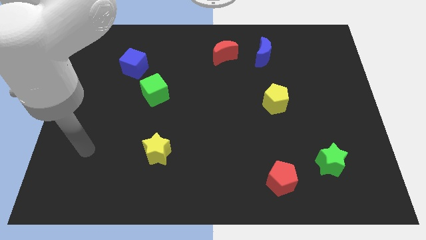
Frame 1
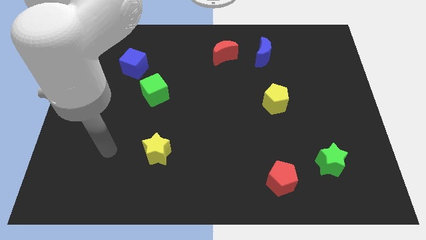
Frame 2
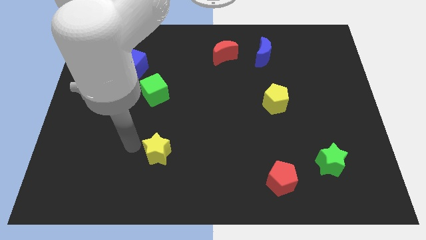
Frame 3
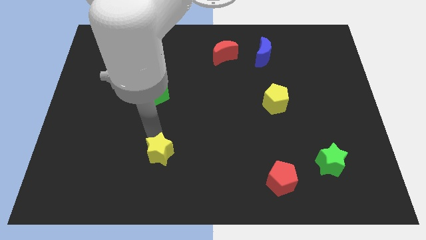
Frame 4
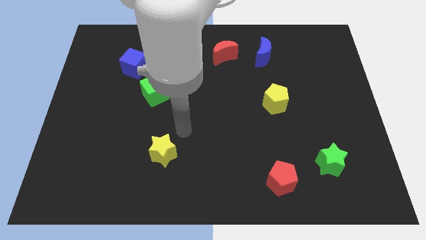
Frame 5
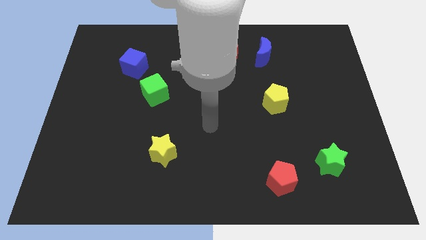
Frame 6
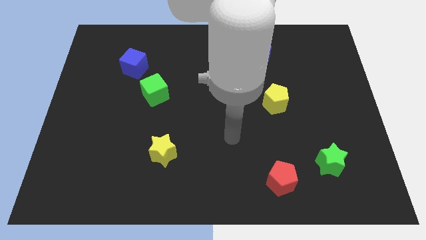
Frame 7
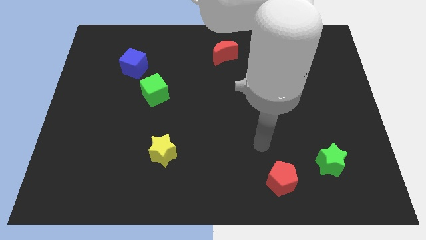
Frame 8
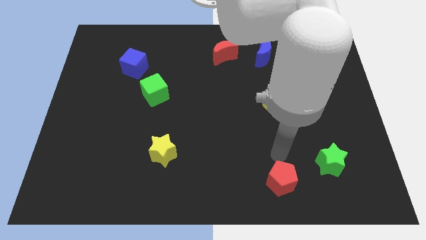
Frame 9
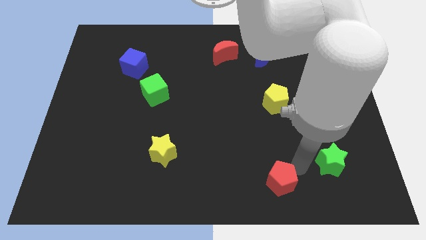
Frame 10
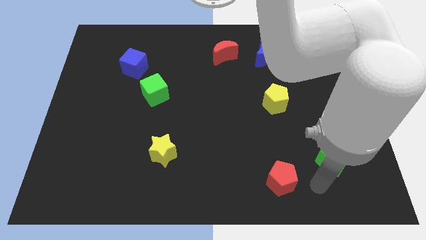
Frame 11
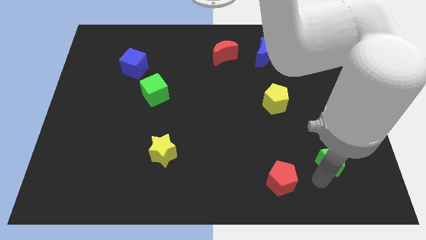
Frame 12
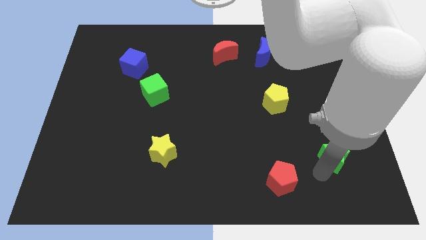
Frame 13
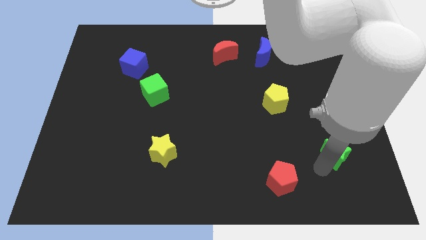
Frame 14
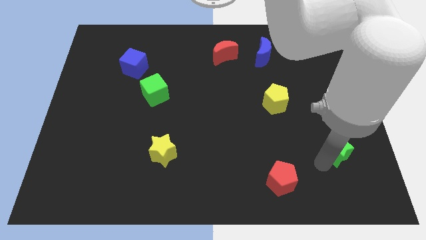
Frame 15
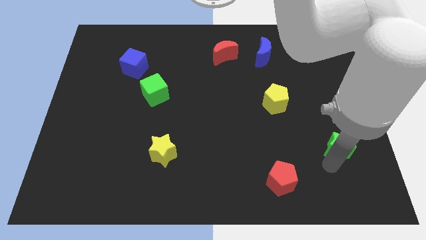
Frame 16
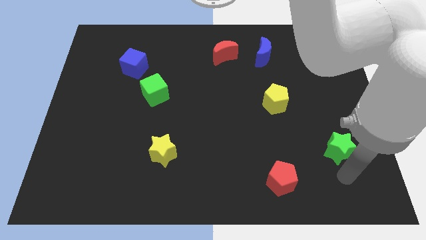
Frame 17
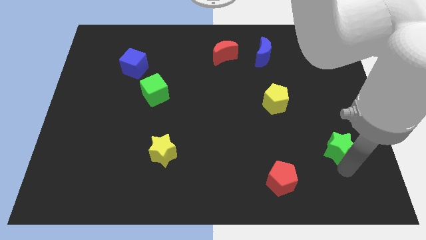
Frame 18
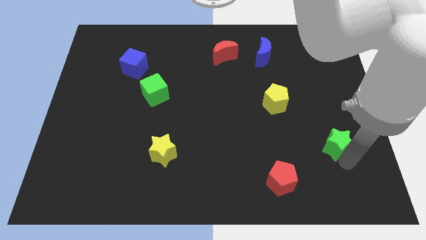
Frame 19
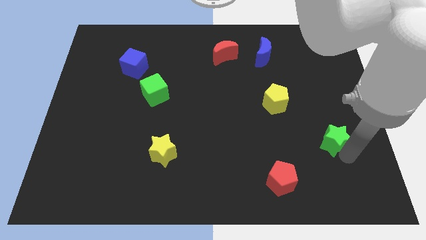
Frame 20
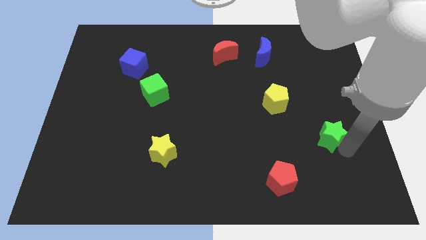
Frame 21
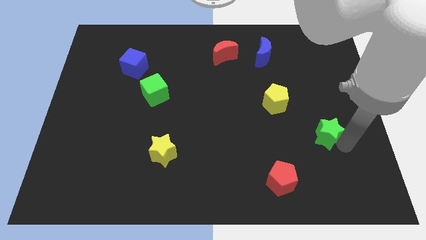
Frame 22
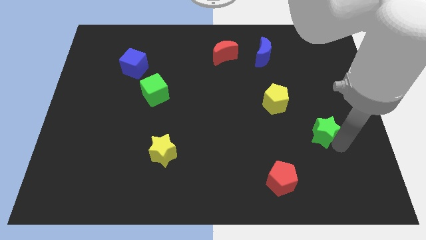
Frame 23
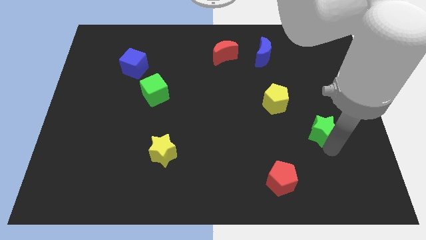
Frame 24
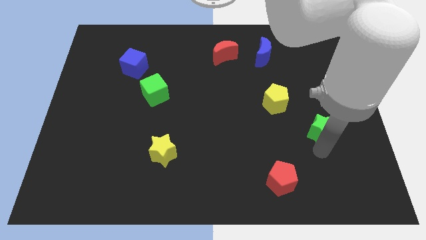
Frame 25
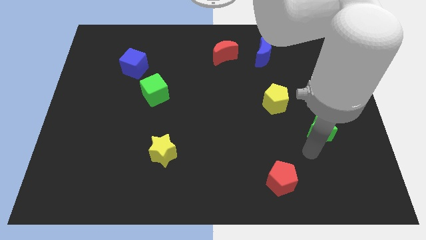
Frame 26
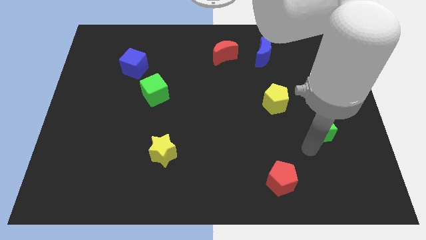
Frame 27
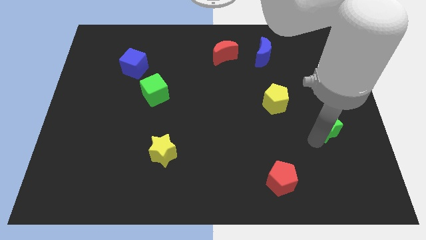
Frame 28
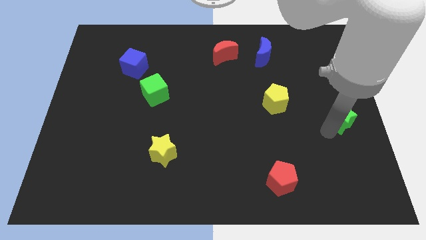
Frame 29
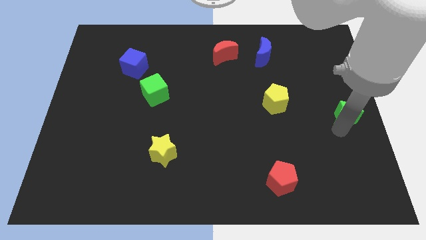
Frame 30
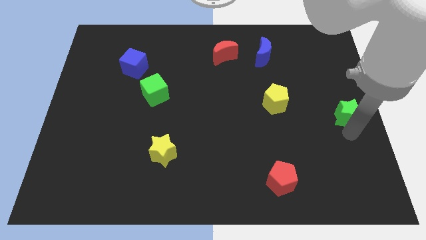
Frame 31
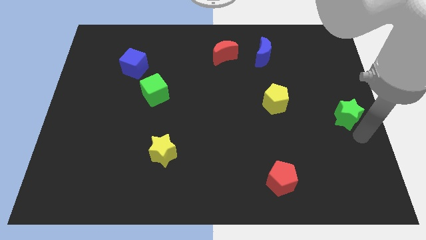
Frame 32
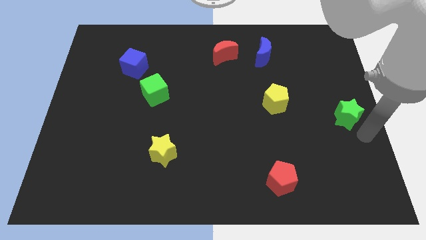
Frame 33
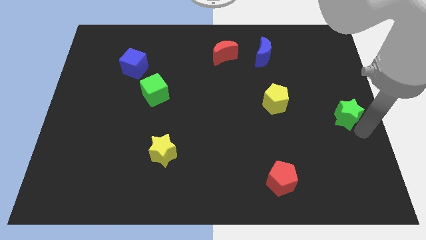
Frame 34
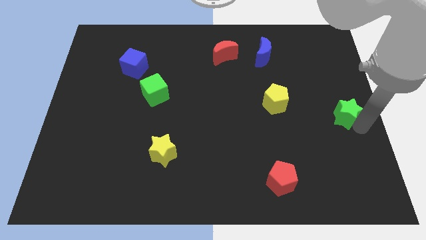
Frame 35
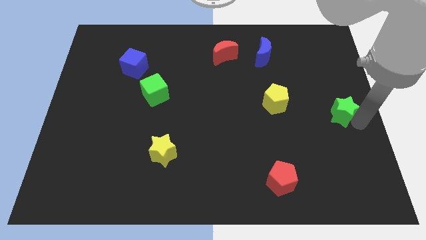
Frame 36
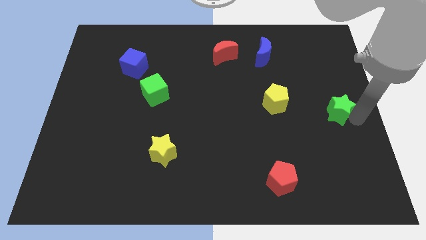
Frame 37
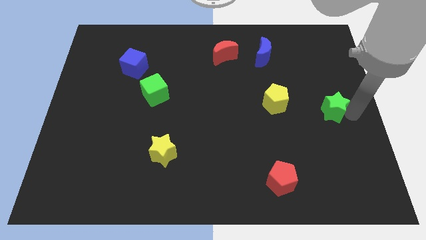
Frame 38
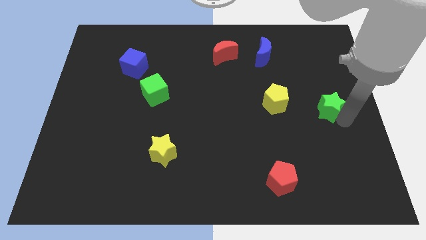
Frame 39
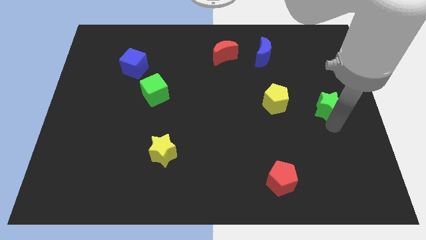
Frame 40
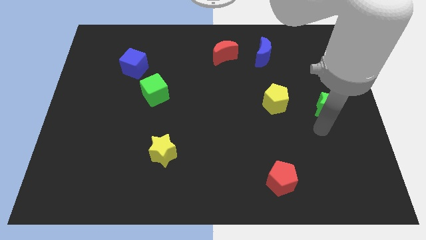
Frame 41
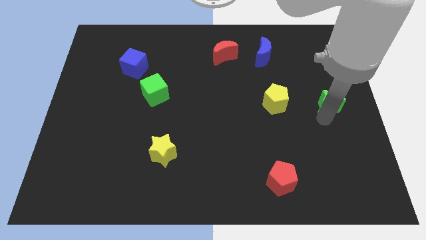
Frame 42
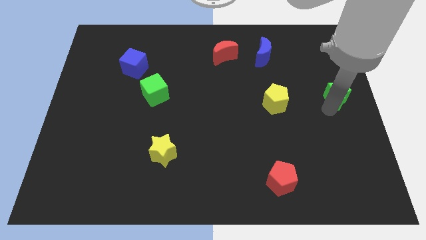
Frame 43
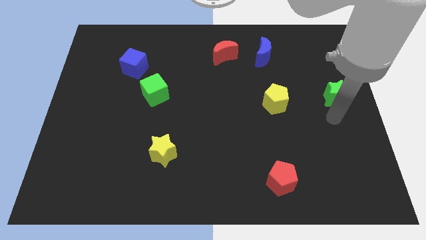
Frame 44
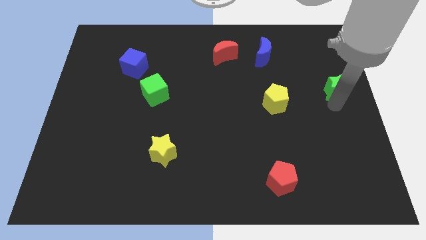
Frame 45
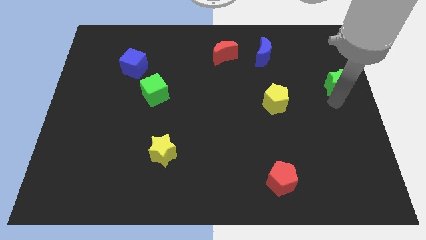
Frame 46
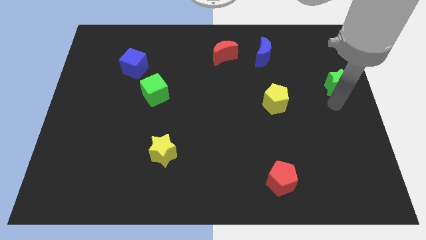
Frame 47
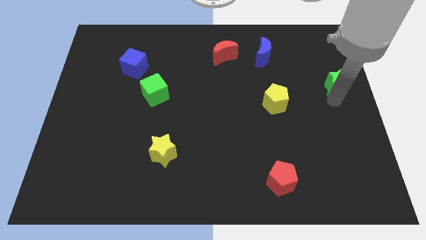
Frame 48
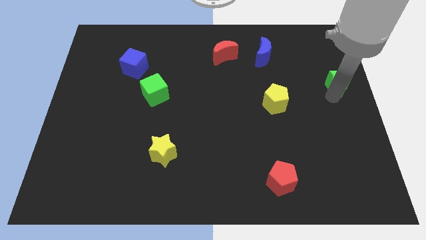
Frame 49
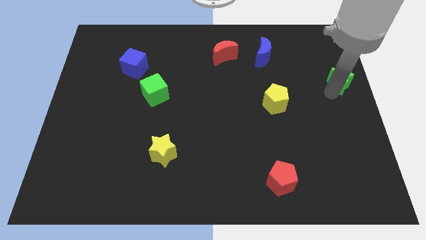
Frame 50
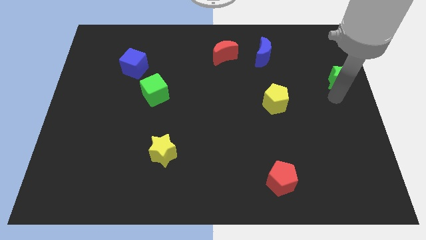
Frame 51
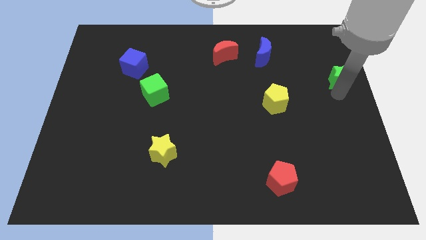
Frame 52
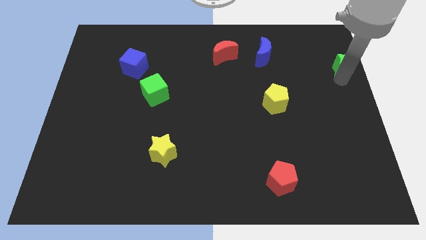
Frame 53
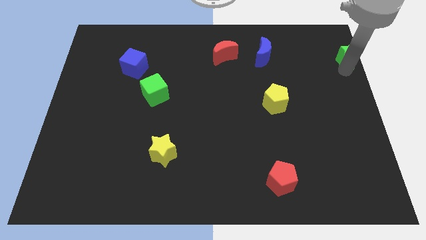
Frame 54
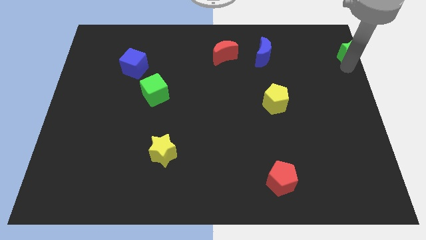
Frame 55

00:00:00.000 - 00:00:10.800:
slide the green star to the top right corner

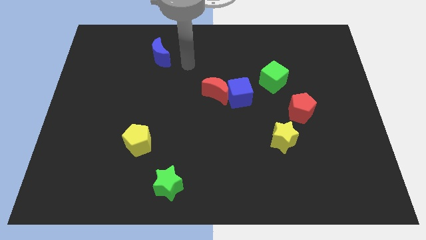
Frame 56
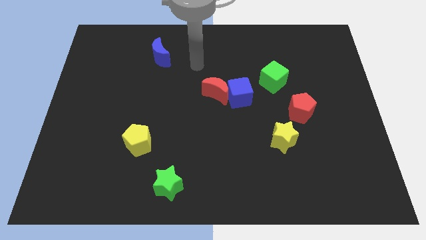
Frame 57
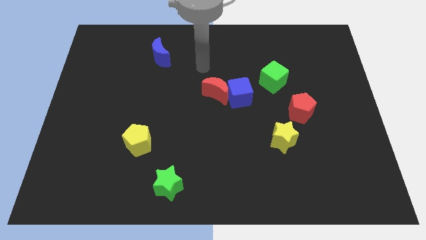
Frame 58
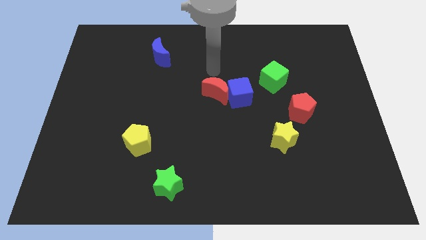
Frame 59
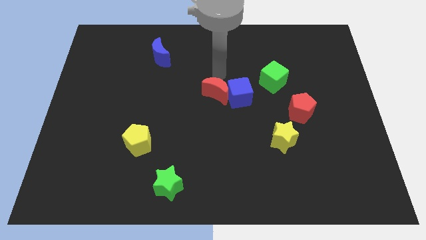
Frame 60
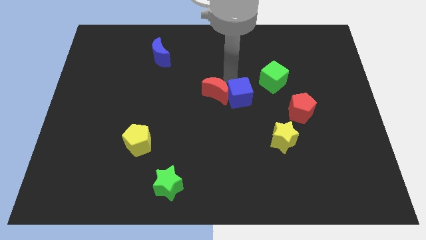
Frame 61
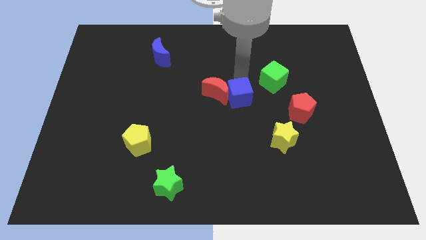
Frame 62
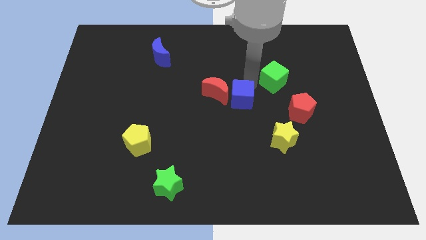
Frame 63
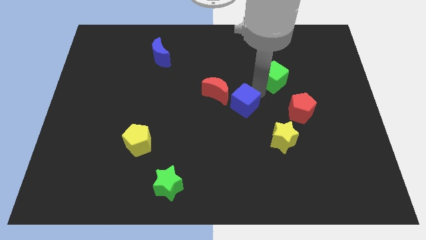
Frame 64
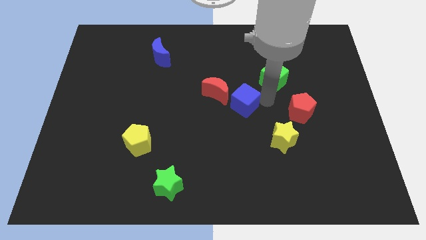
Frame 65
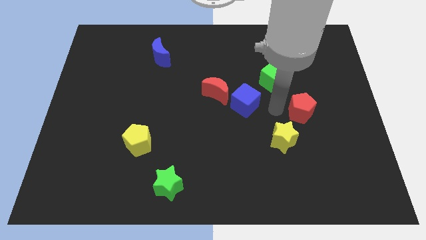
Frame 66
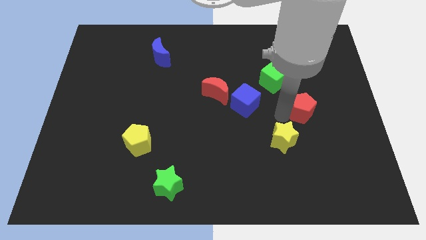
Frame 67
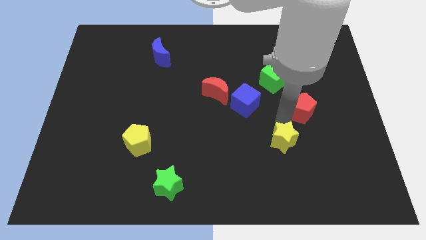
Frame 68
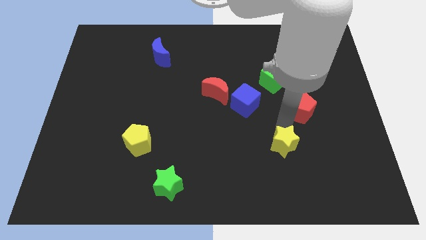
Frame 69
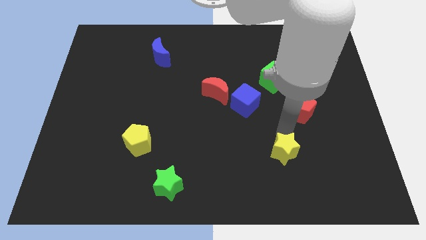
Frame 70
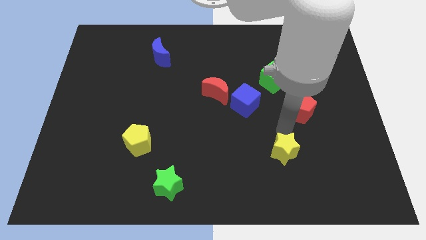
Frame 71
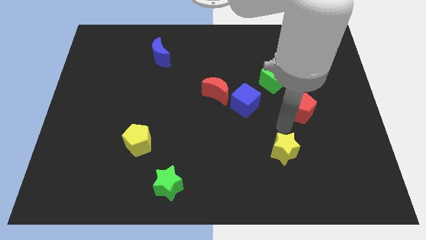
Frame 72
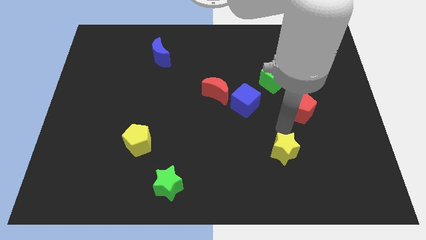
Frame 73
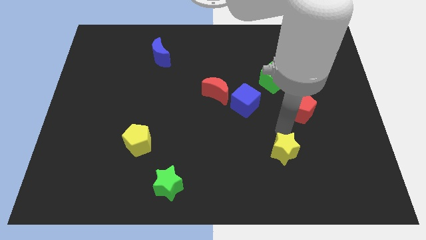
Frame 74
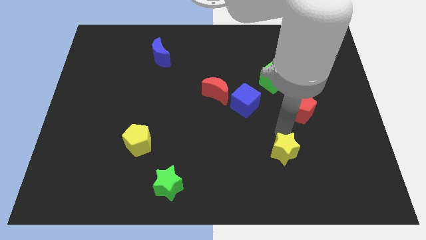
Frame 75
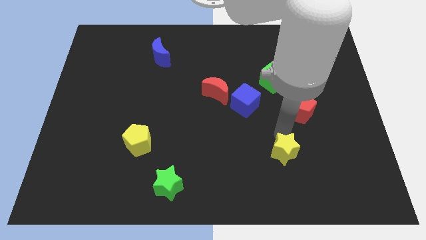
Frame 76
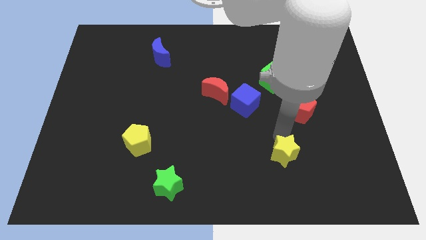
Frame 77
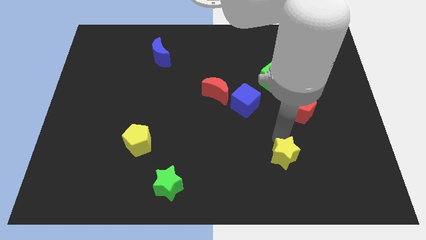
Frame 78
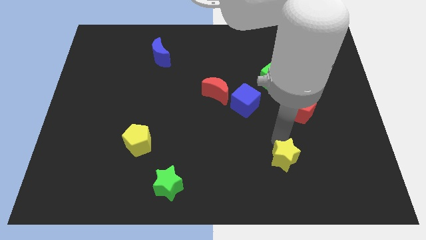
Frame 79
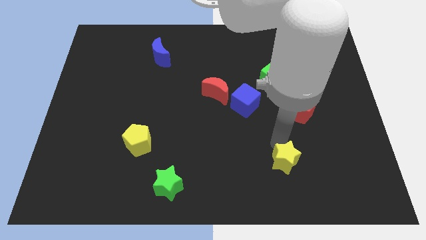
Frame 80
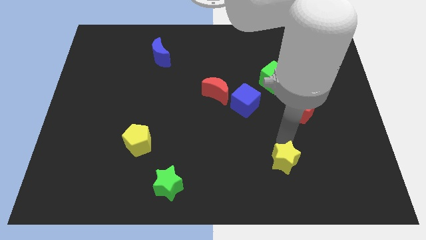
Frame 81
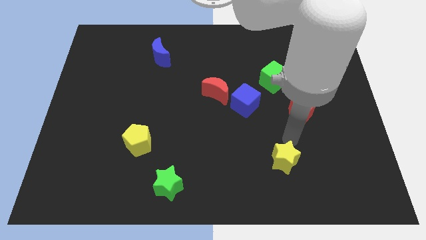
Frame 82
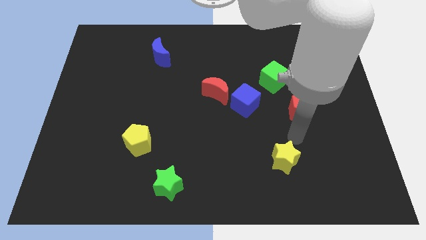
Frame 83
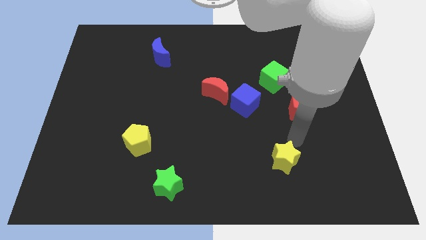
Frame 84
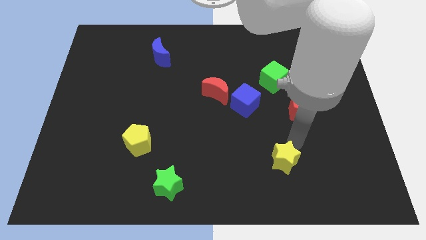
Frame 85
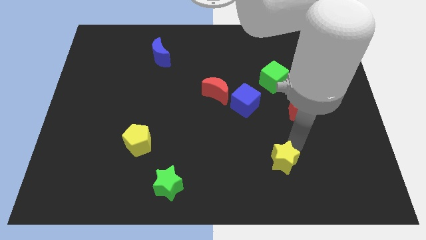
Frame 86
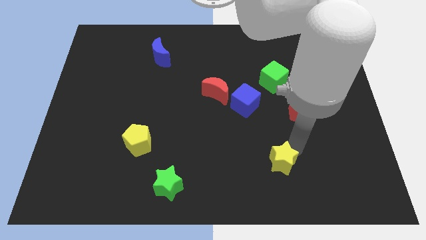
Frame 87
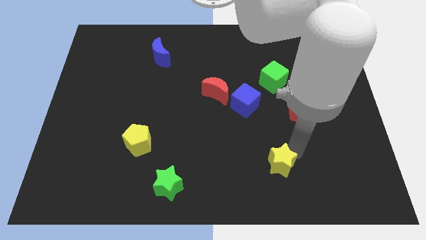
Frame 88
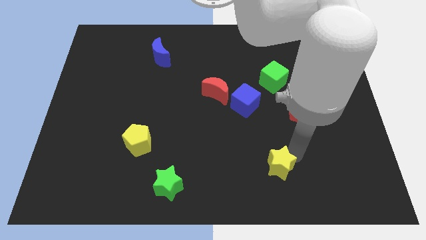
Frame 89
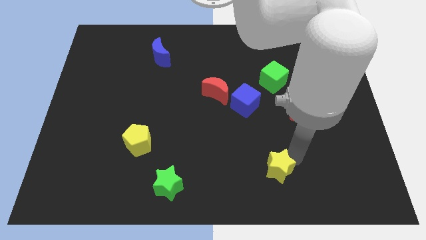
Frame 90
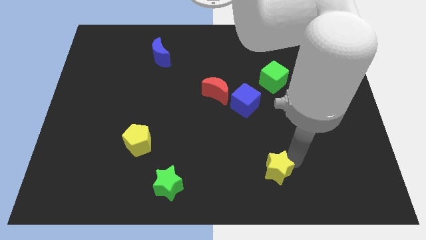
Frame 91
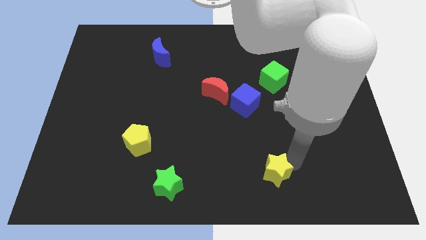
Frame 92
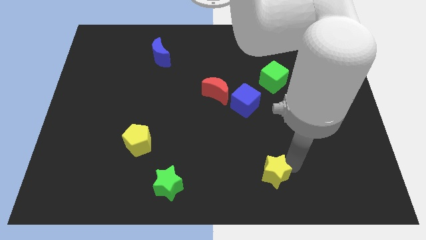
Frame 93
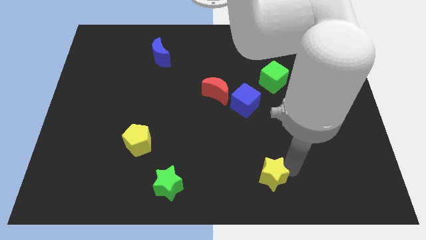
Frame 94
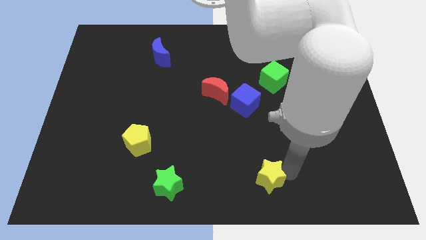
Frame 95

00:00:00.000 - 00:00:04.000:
put the yellow star to the bottom side
